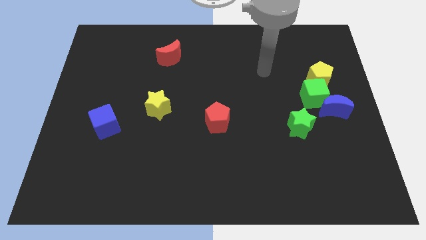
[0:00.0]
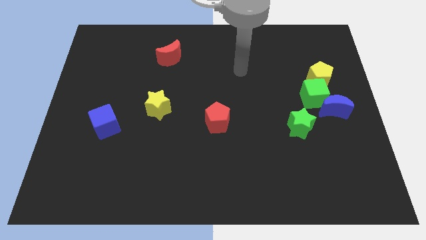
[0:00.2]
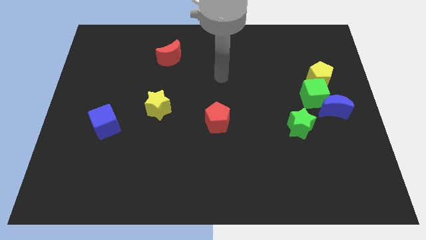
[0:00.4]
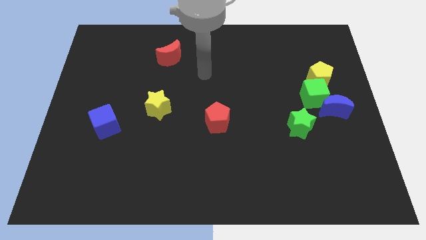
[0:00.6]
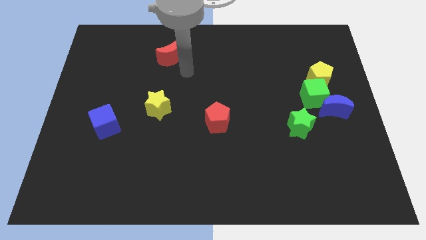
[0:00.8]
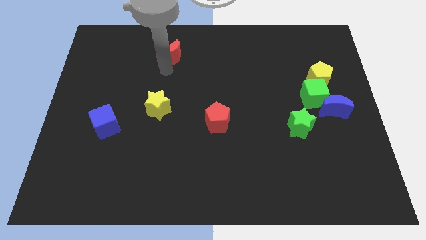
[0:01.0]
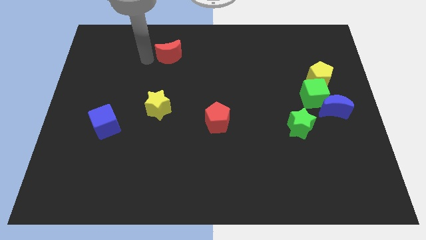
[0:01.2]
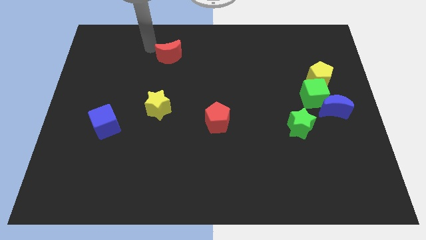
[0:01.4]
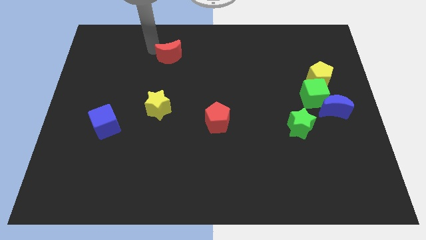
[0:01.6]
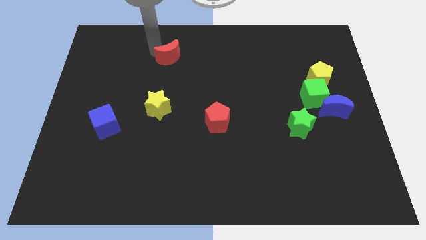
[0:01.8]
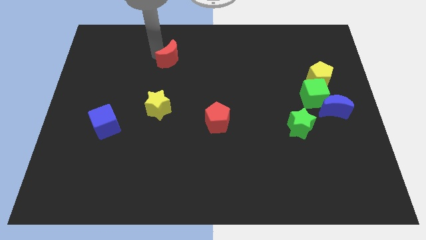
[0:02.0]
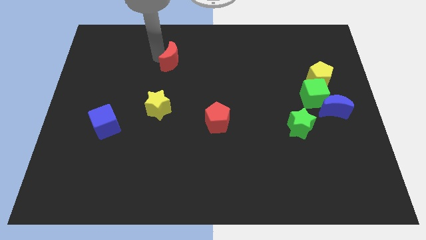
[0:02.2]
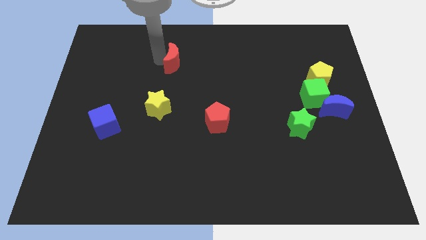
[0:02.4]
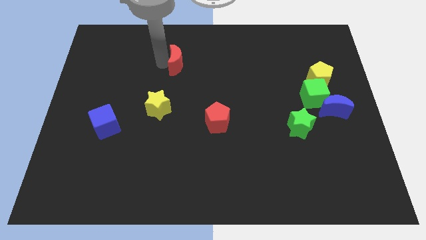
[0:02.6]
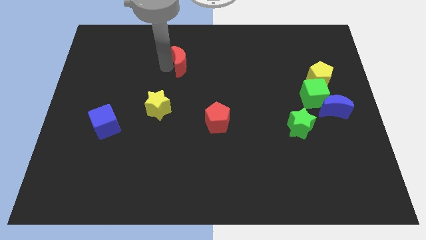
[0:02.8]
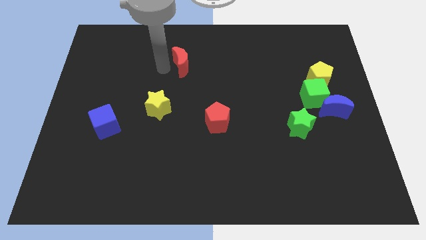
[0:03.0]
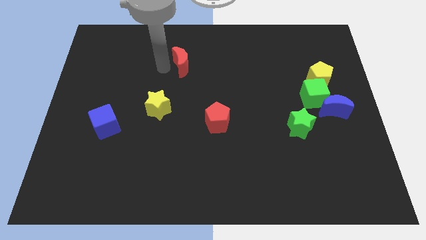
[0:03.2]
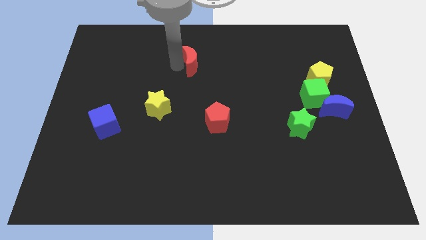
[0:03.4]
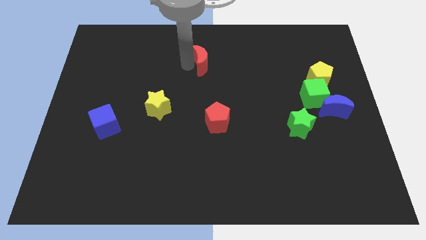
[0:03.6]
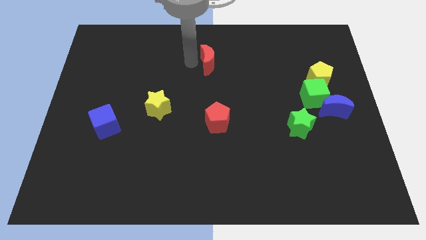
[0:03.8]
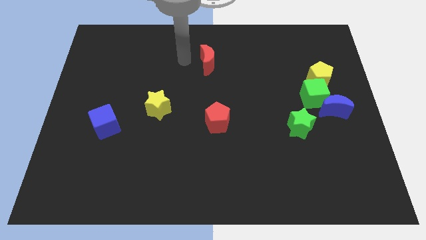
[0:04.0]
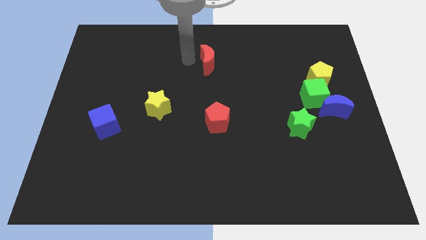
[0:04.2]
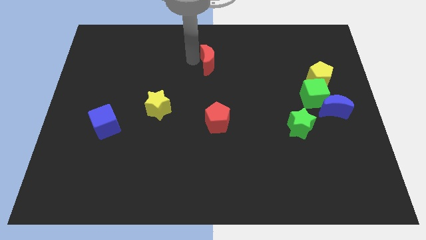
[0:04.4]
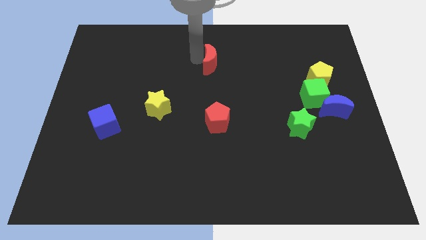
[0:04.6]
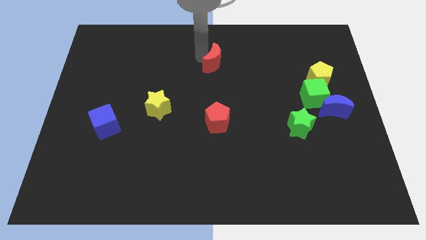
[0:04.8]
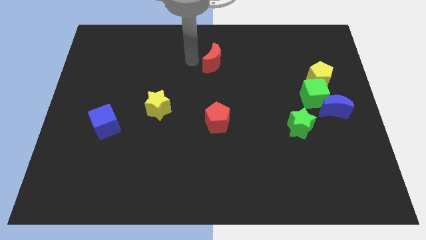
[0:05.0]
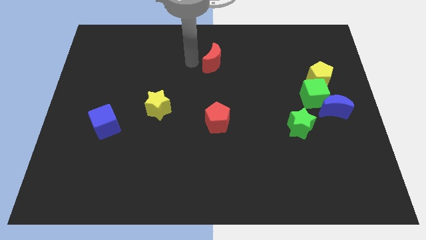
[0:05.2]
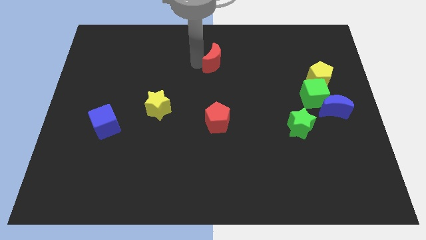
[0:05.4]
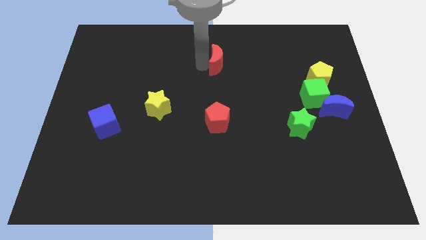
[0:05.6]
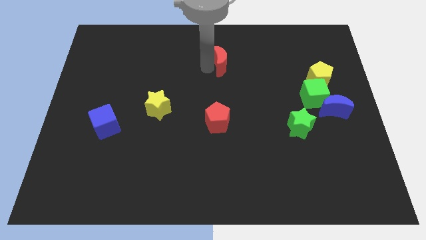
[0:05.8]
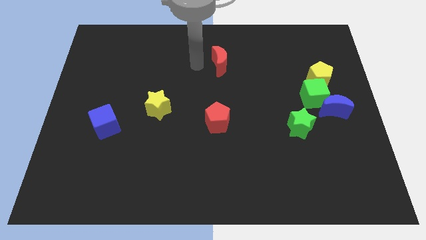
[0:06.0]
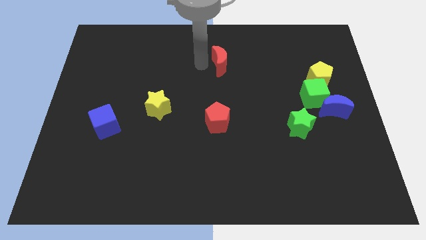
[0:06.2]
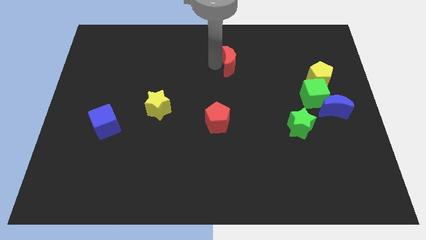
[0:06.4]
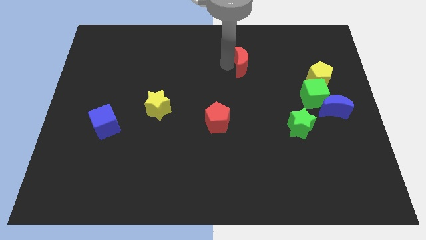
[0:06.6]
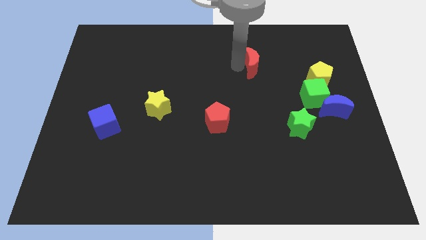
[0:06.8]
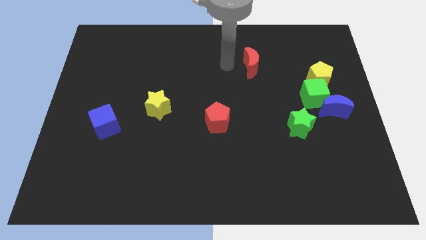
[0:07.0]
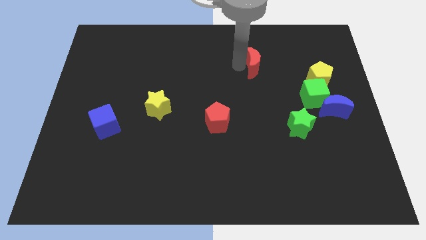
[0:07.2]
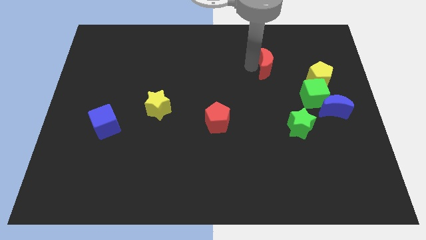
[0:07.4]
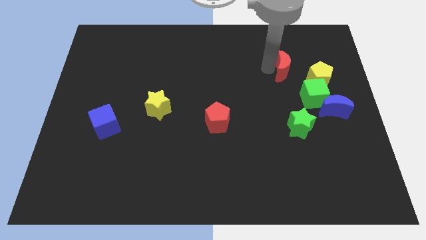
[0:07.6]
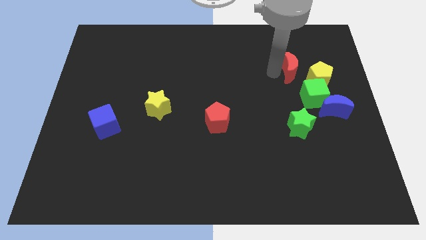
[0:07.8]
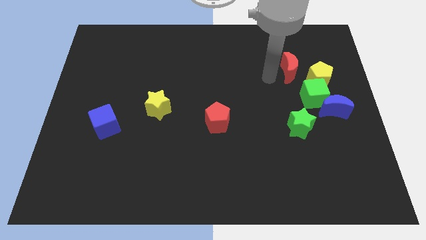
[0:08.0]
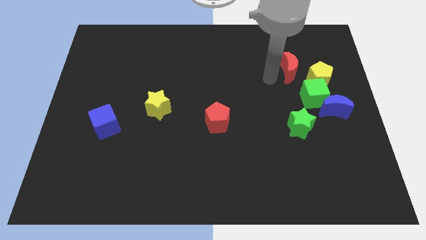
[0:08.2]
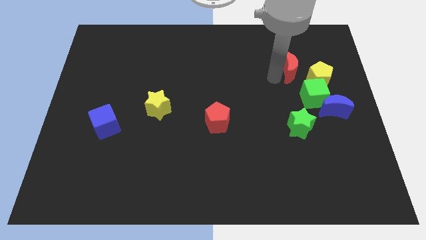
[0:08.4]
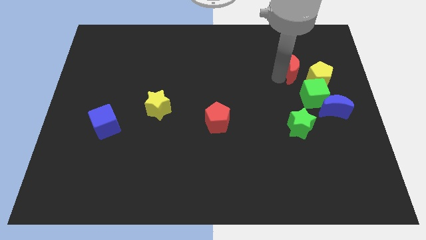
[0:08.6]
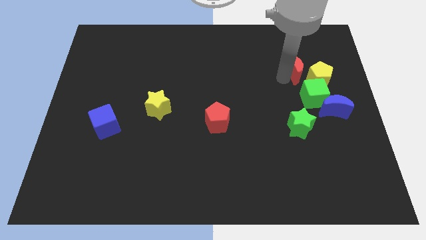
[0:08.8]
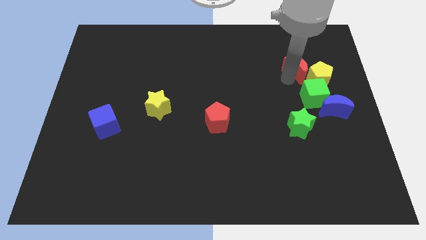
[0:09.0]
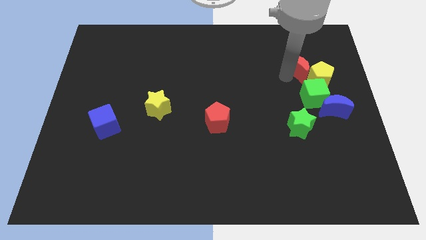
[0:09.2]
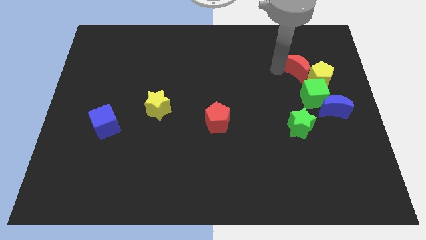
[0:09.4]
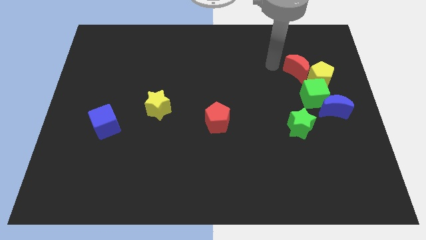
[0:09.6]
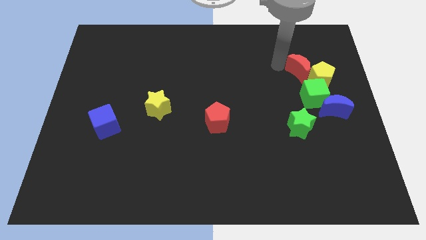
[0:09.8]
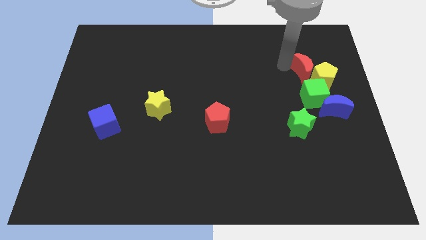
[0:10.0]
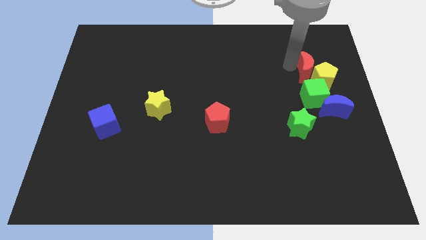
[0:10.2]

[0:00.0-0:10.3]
move the red moon to the top of the blue moon

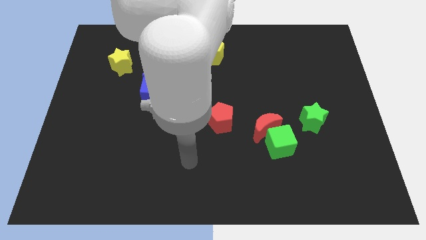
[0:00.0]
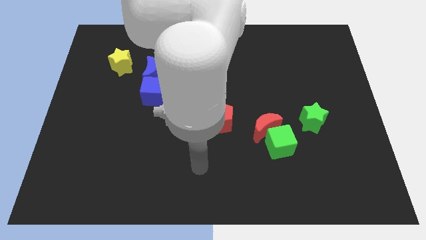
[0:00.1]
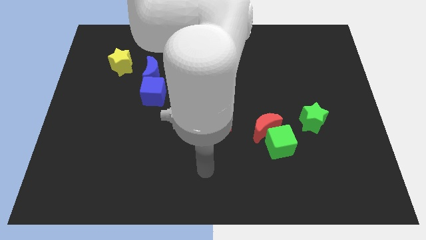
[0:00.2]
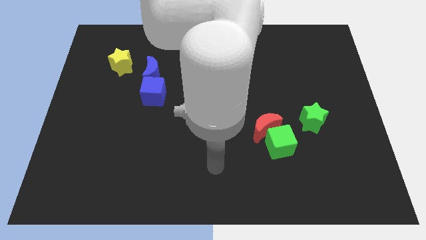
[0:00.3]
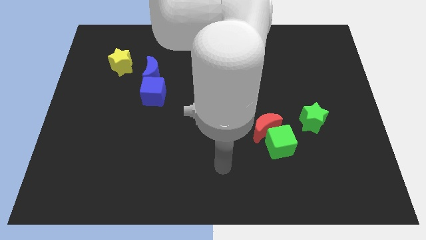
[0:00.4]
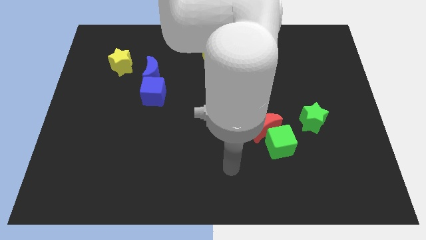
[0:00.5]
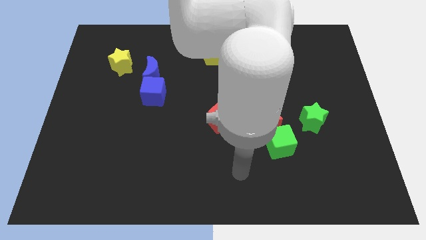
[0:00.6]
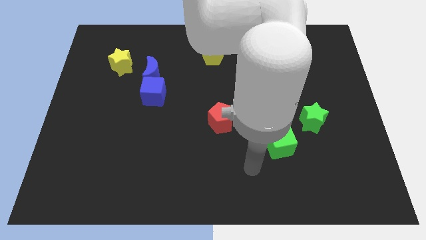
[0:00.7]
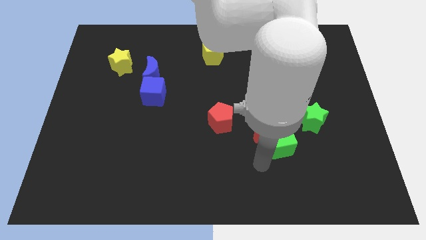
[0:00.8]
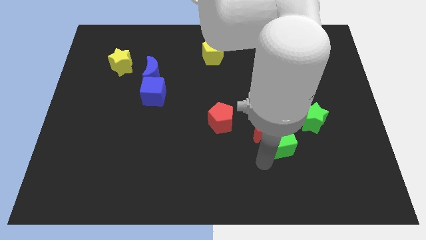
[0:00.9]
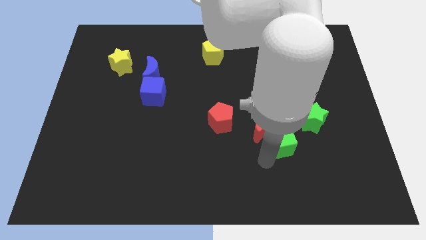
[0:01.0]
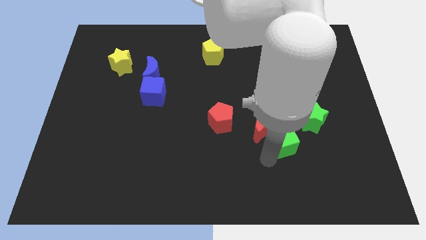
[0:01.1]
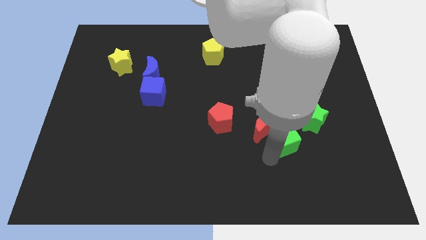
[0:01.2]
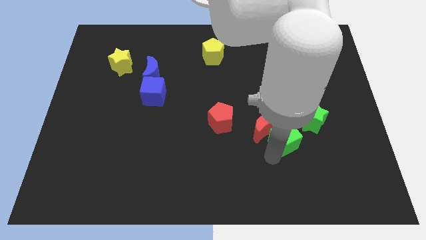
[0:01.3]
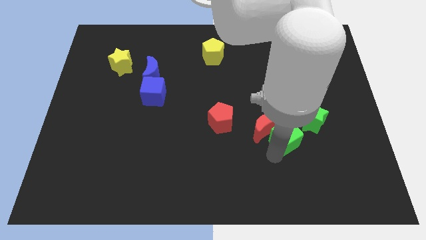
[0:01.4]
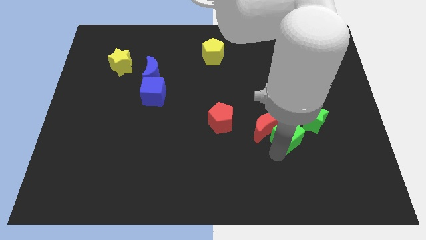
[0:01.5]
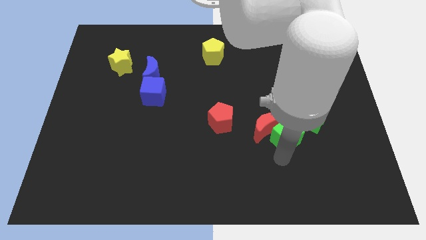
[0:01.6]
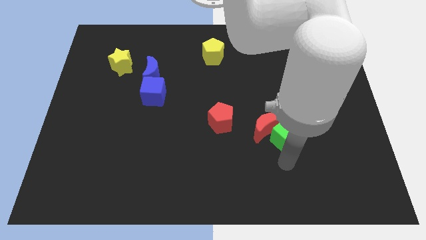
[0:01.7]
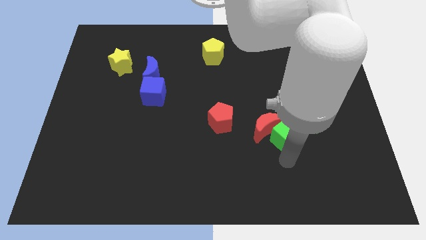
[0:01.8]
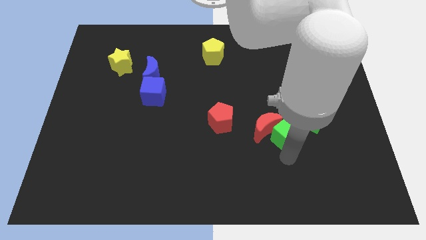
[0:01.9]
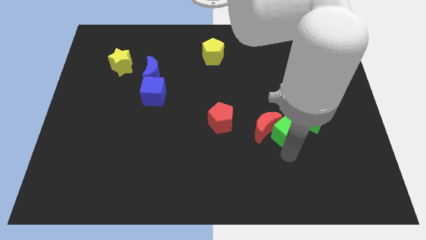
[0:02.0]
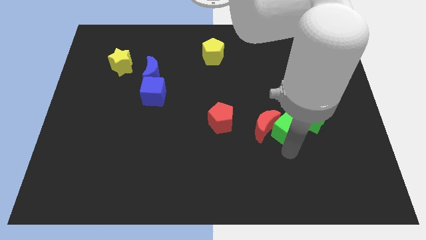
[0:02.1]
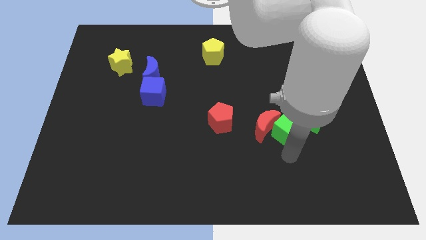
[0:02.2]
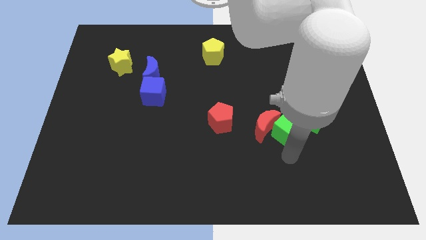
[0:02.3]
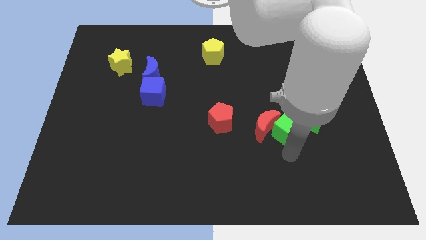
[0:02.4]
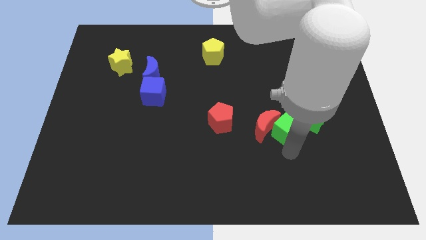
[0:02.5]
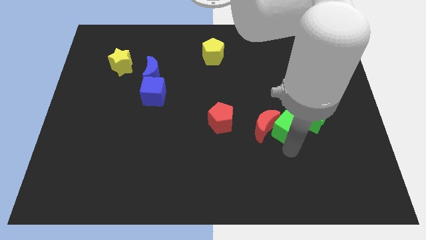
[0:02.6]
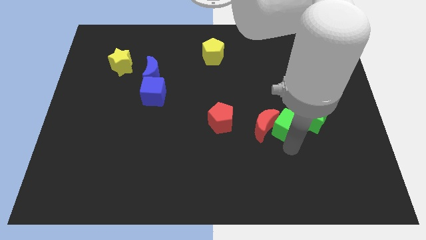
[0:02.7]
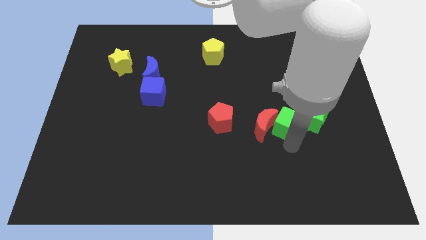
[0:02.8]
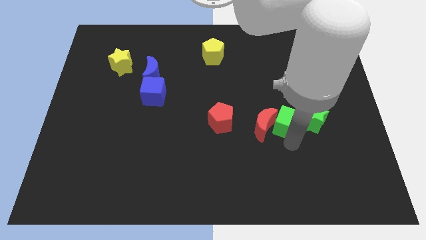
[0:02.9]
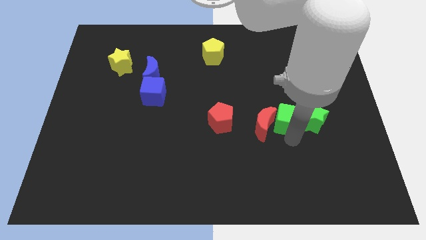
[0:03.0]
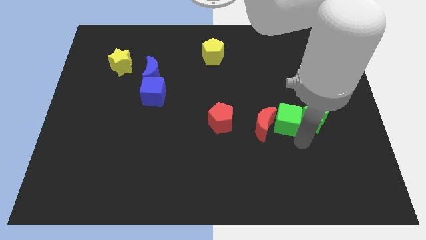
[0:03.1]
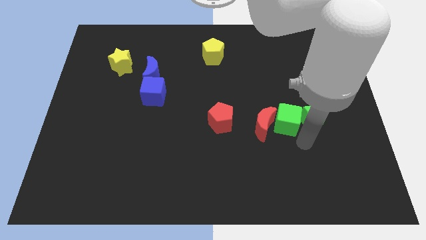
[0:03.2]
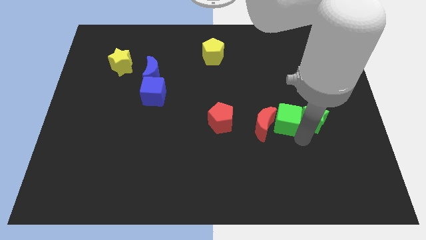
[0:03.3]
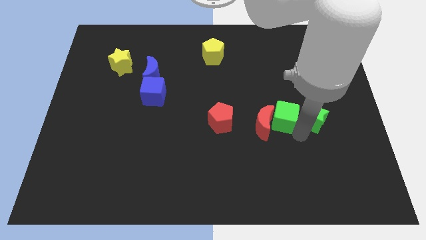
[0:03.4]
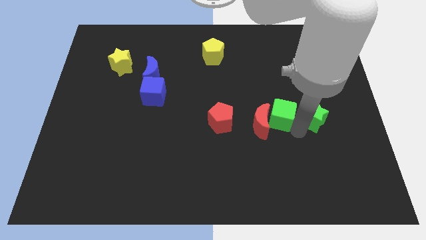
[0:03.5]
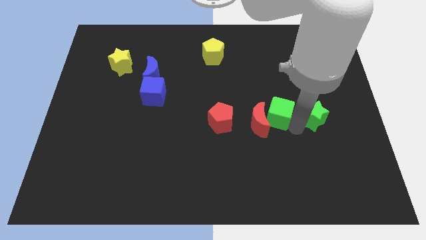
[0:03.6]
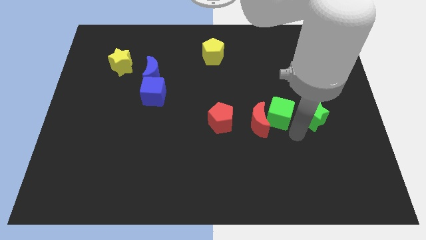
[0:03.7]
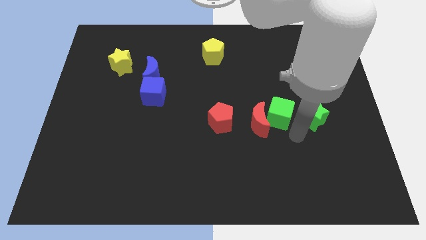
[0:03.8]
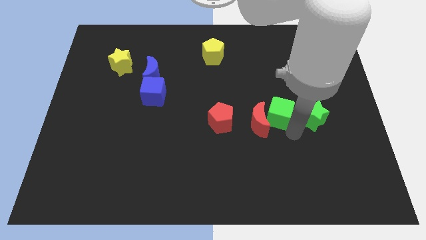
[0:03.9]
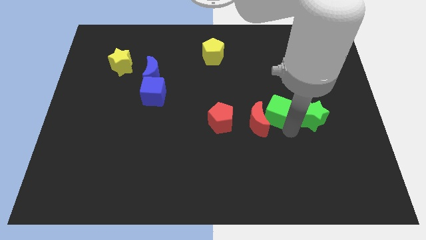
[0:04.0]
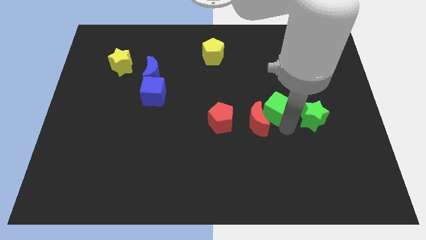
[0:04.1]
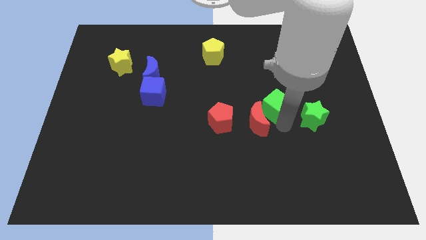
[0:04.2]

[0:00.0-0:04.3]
put the green cube to the top side of the red moon
